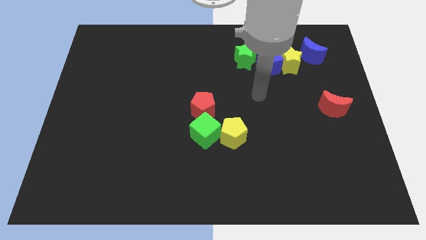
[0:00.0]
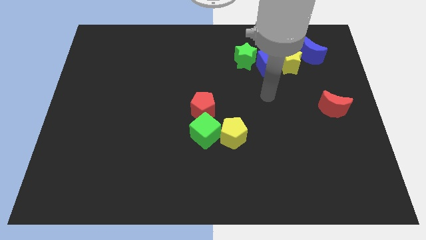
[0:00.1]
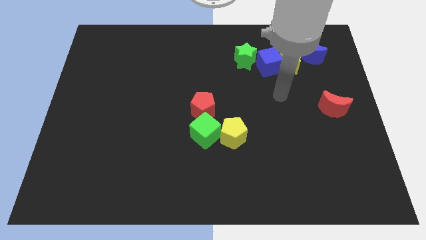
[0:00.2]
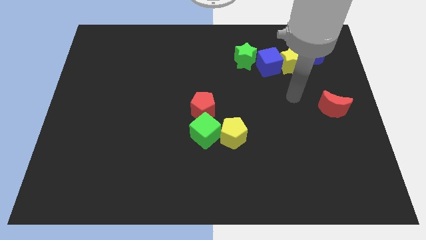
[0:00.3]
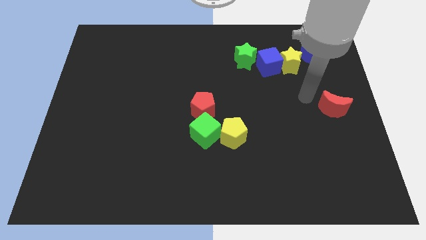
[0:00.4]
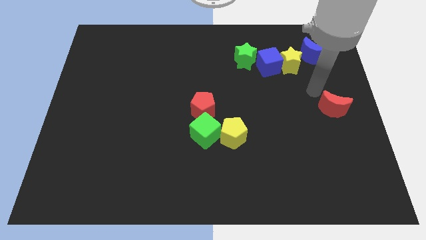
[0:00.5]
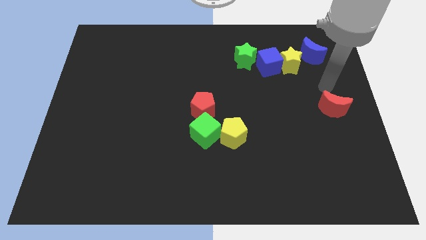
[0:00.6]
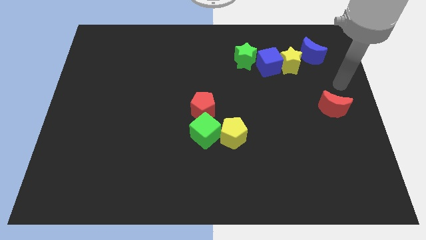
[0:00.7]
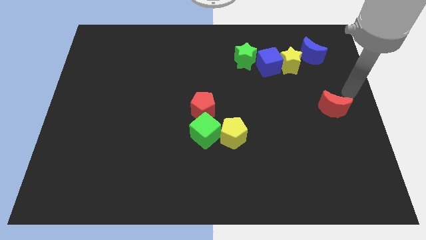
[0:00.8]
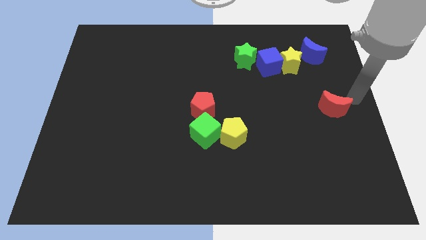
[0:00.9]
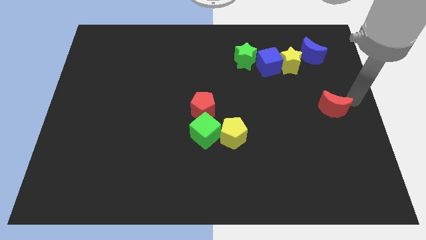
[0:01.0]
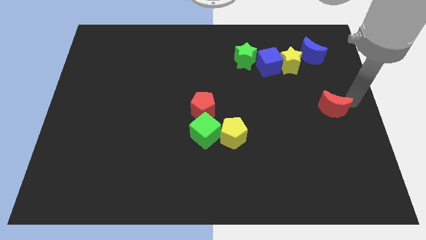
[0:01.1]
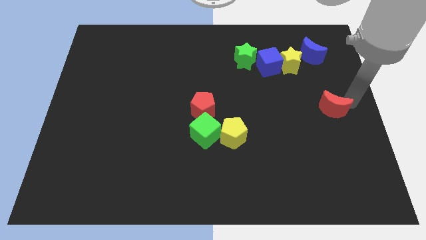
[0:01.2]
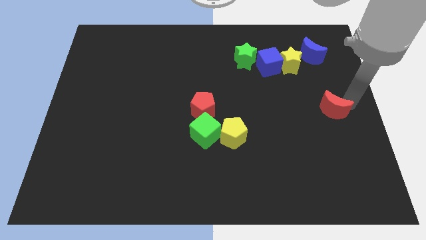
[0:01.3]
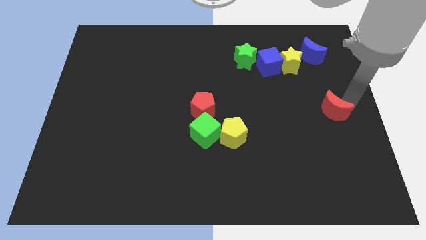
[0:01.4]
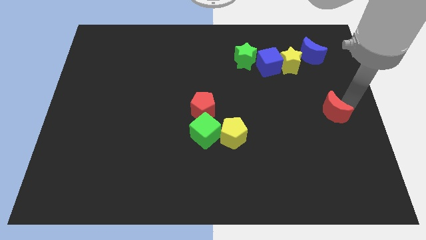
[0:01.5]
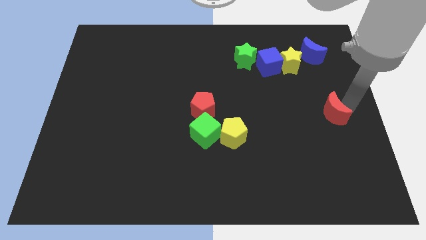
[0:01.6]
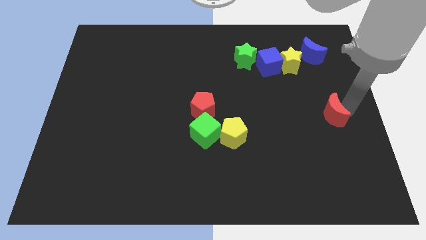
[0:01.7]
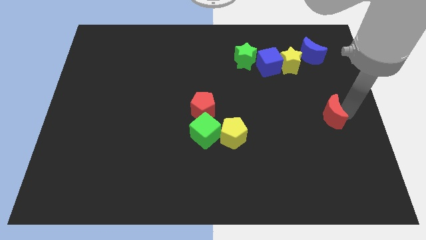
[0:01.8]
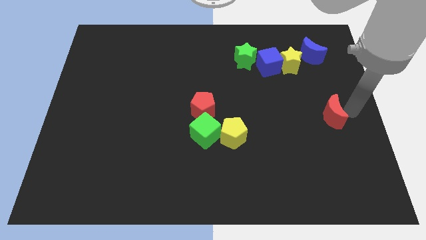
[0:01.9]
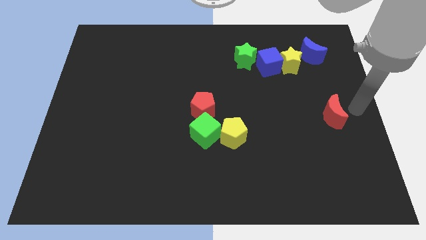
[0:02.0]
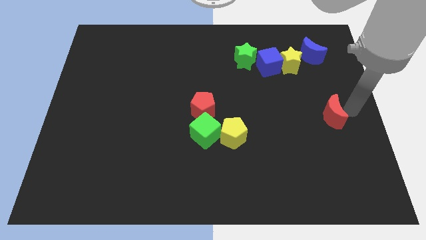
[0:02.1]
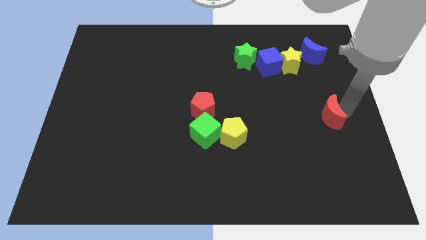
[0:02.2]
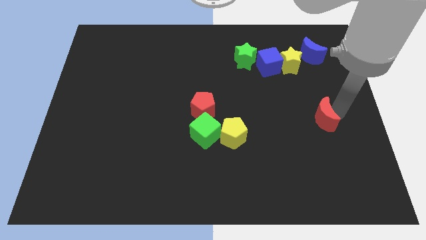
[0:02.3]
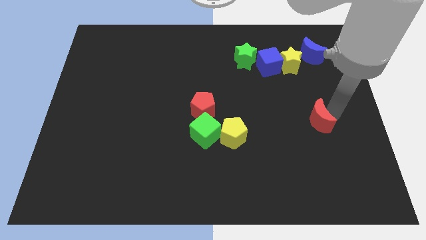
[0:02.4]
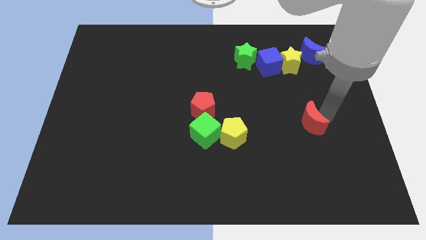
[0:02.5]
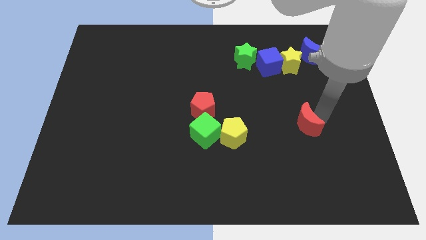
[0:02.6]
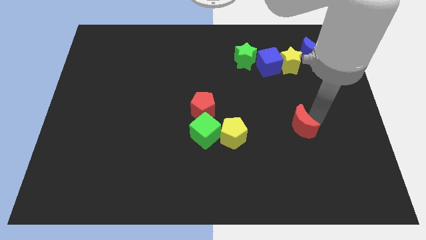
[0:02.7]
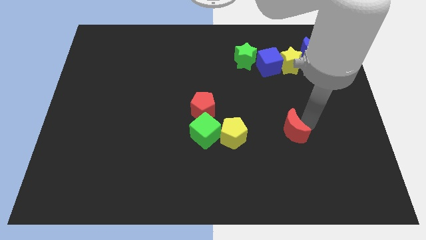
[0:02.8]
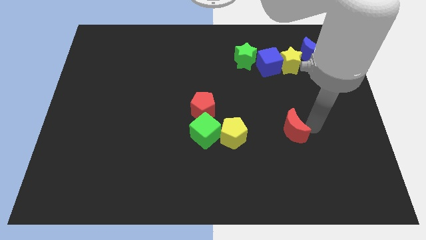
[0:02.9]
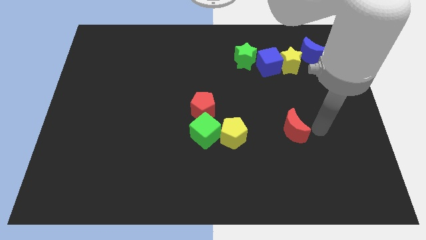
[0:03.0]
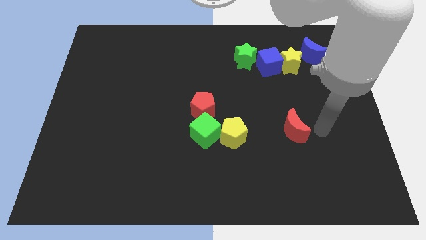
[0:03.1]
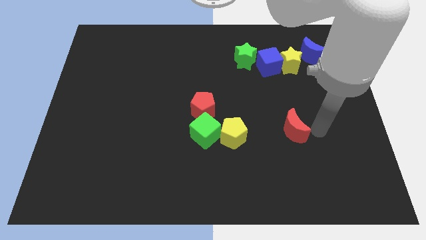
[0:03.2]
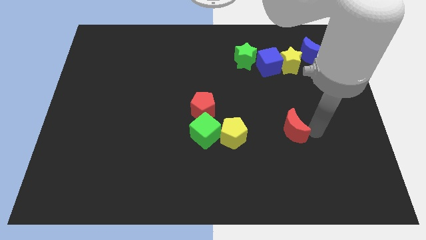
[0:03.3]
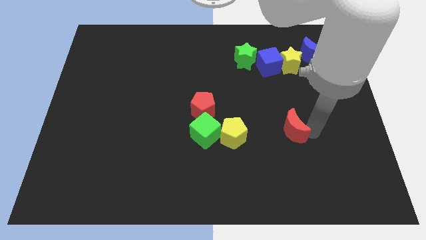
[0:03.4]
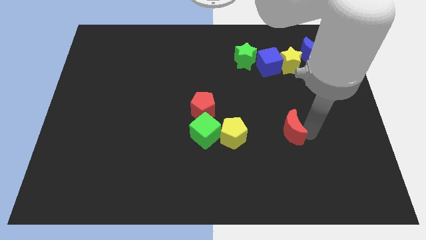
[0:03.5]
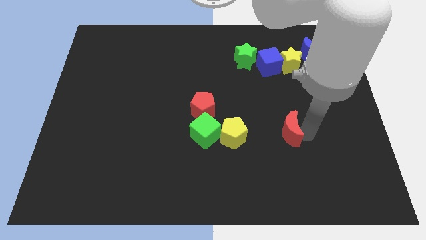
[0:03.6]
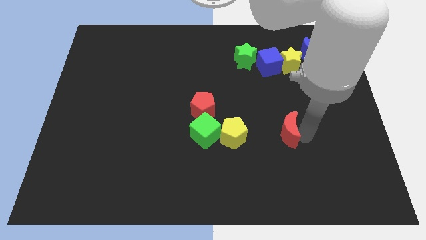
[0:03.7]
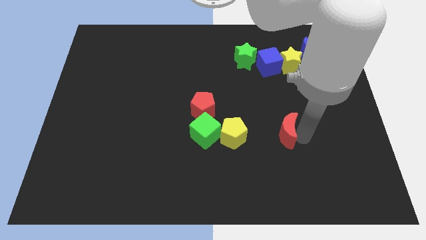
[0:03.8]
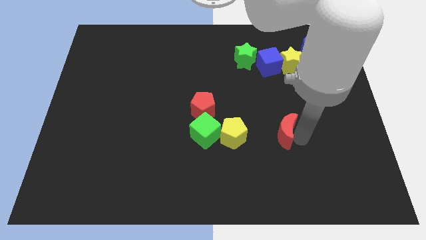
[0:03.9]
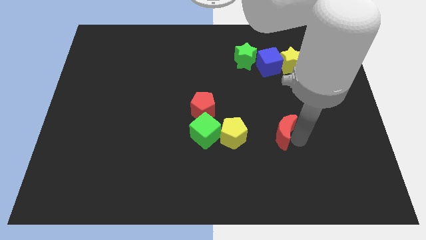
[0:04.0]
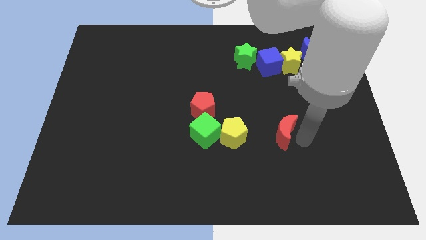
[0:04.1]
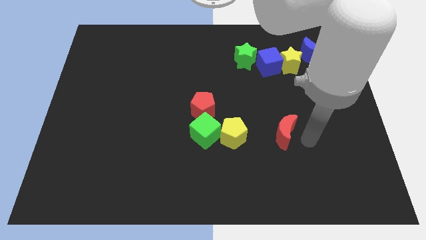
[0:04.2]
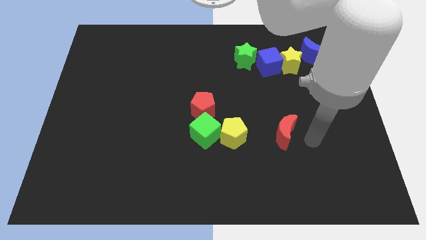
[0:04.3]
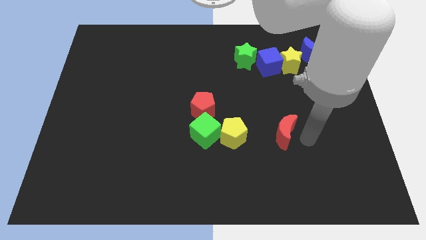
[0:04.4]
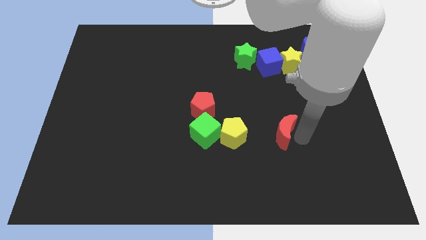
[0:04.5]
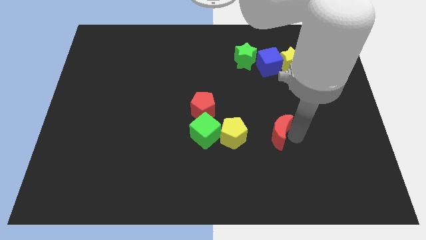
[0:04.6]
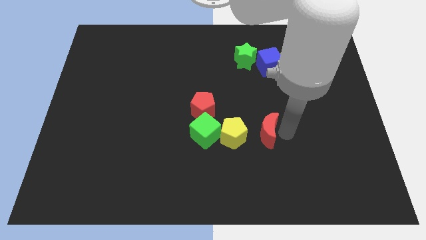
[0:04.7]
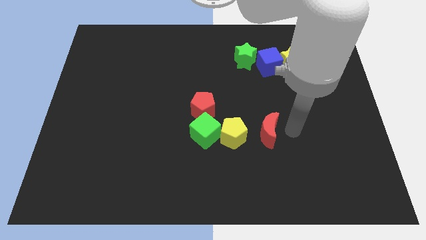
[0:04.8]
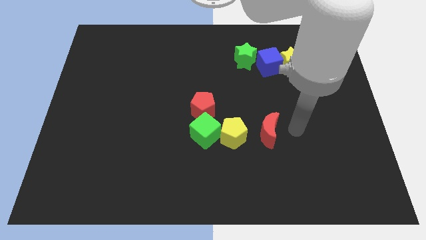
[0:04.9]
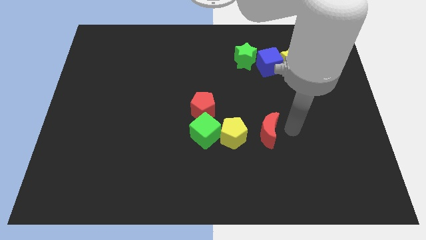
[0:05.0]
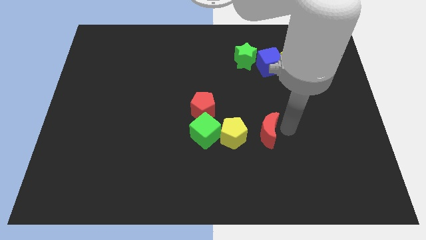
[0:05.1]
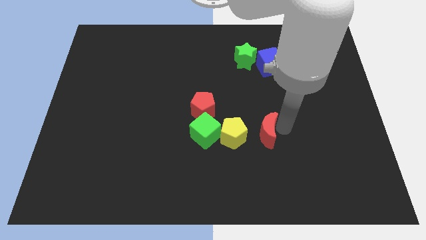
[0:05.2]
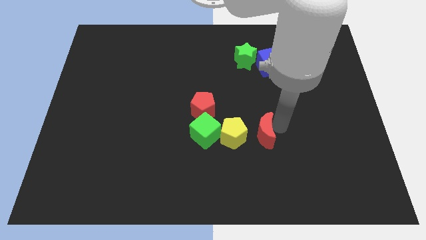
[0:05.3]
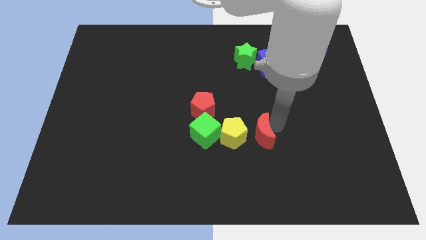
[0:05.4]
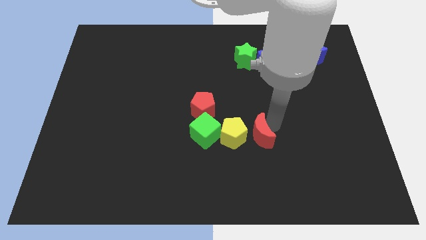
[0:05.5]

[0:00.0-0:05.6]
slide the red moon next to the yellow pentagon

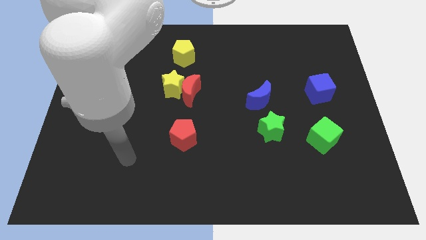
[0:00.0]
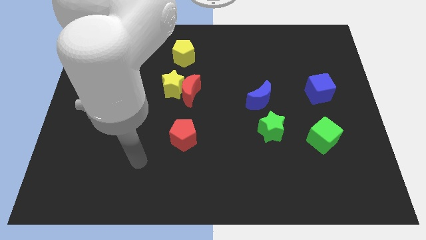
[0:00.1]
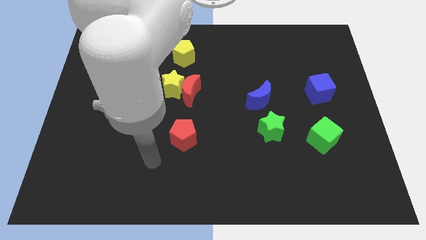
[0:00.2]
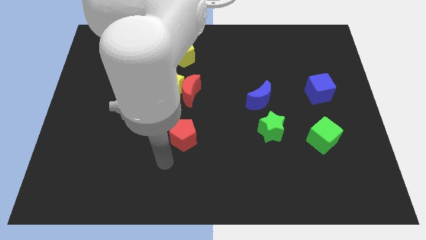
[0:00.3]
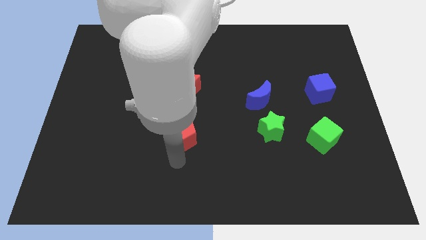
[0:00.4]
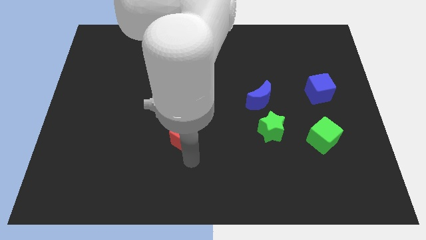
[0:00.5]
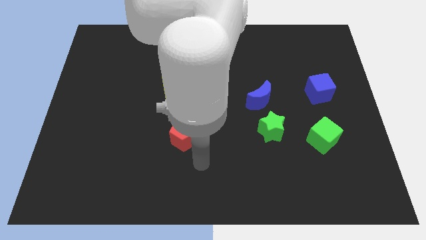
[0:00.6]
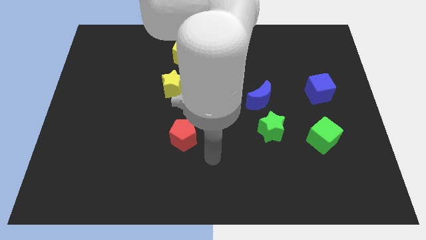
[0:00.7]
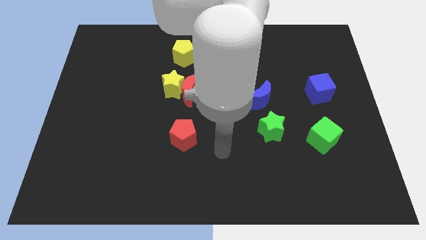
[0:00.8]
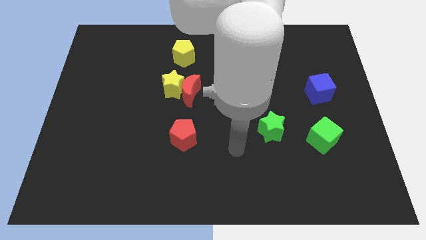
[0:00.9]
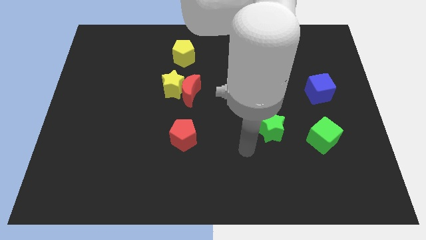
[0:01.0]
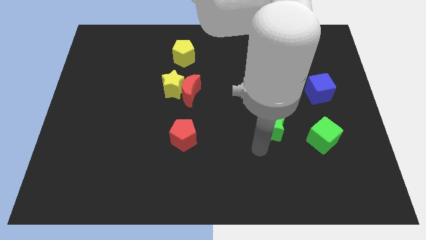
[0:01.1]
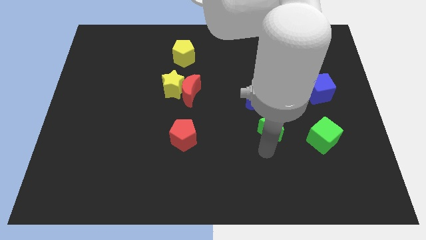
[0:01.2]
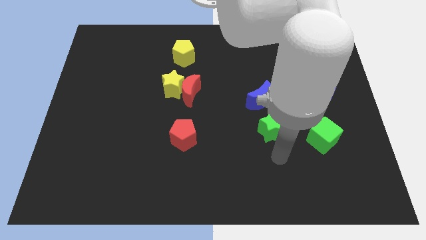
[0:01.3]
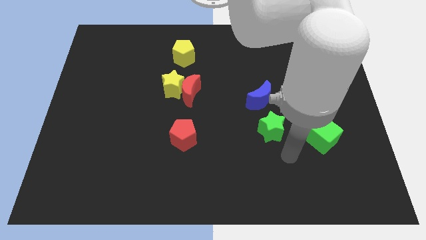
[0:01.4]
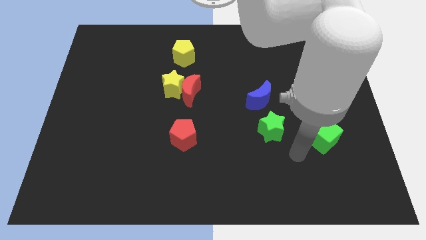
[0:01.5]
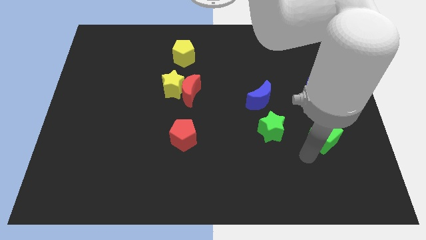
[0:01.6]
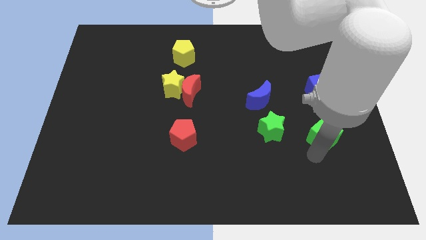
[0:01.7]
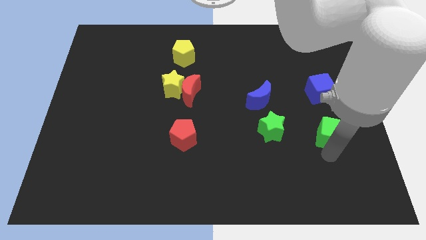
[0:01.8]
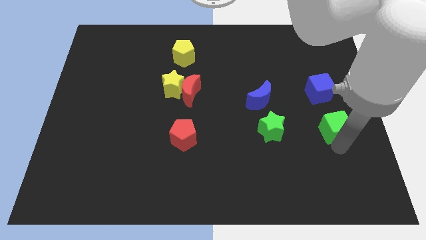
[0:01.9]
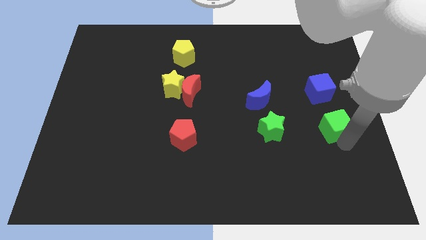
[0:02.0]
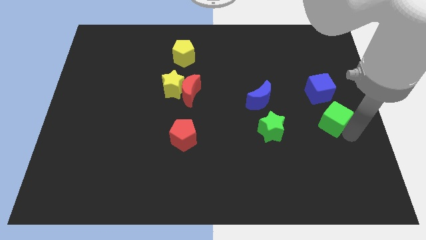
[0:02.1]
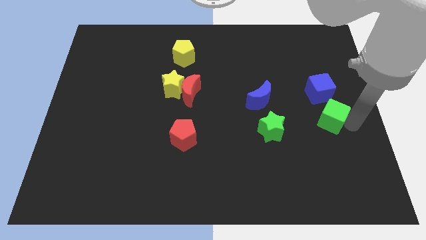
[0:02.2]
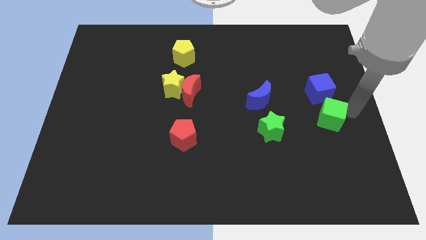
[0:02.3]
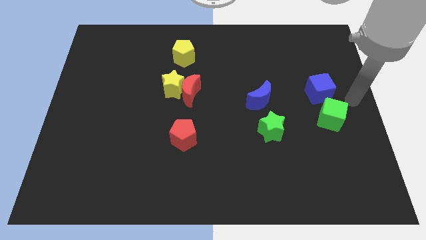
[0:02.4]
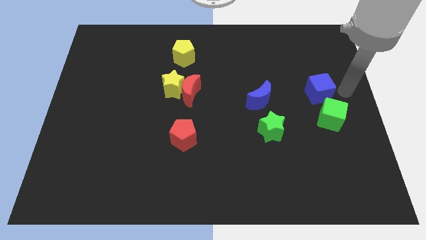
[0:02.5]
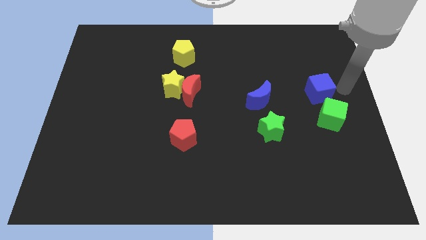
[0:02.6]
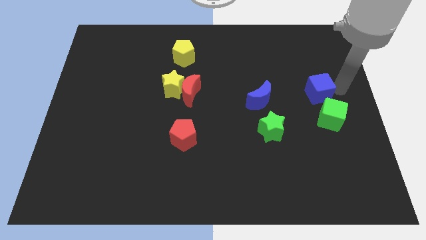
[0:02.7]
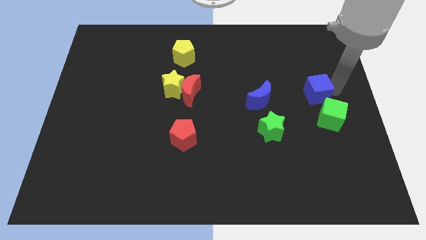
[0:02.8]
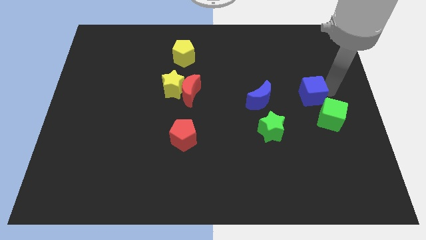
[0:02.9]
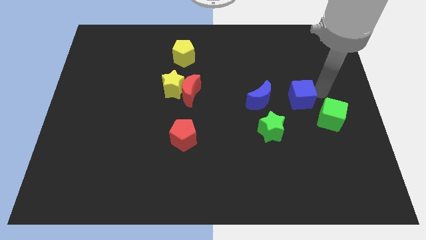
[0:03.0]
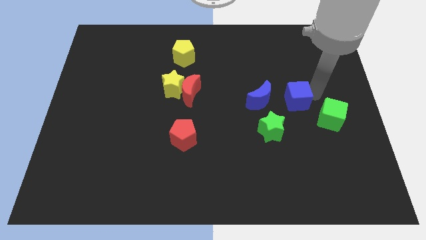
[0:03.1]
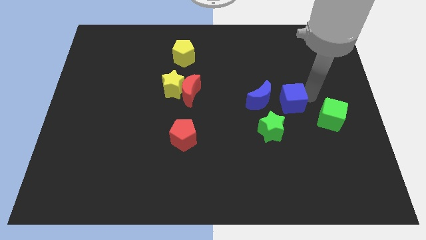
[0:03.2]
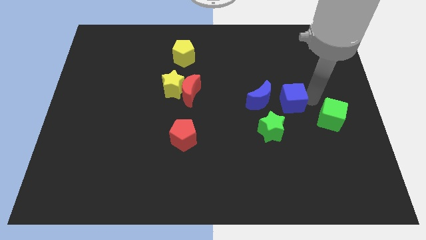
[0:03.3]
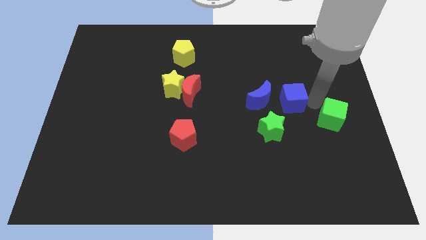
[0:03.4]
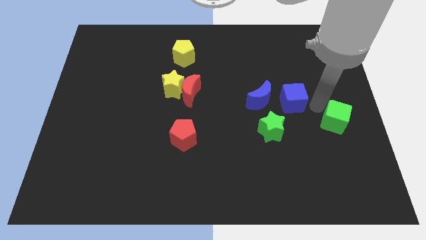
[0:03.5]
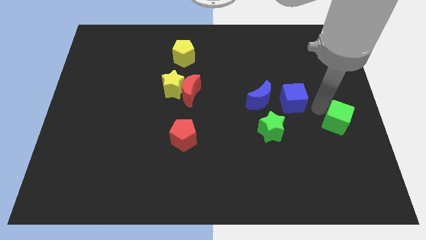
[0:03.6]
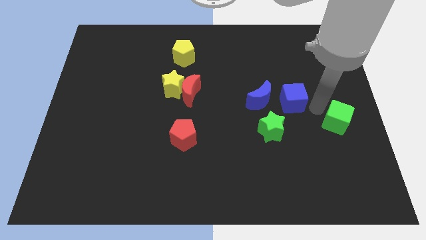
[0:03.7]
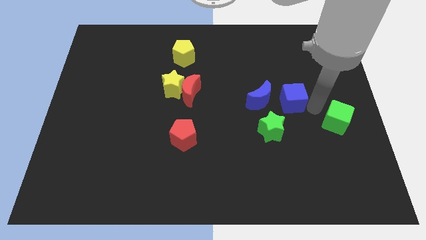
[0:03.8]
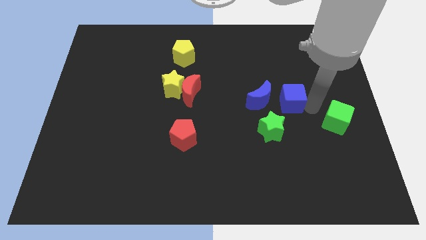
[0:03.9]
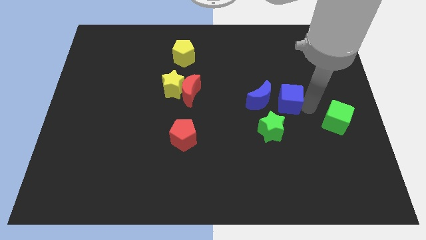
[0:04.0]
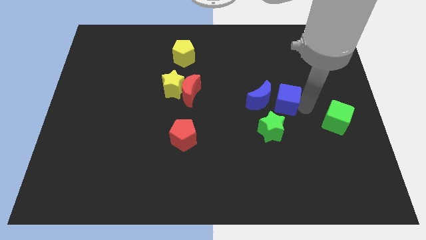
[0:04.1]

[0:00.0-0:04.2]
push the blue cube to the blue moon
